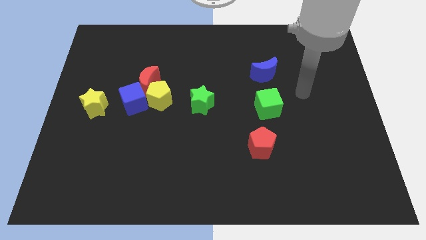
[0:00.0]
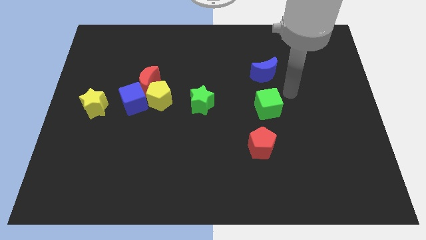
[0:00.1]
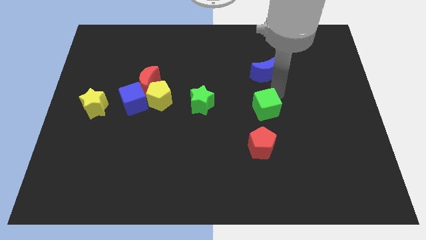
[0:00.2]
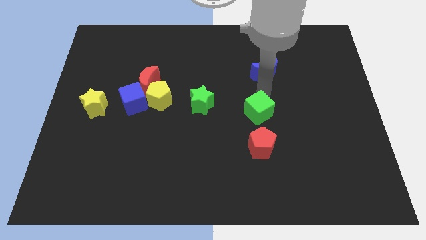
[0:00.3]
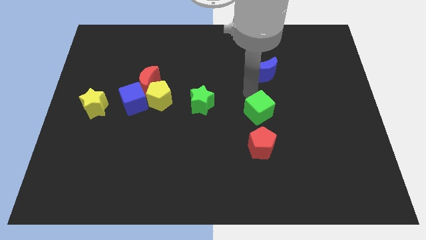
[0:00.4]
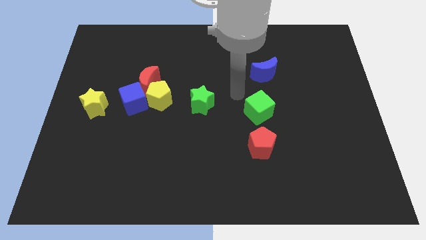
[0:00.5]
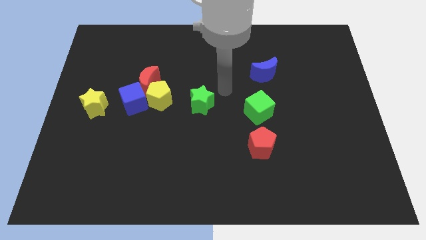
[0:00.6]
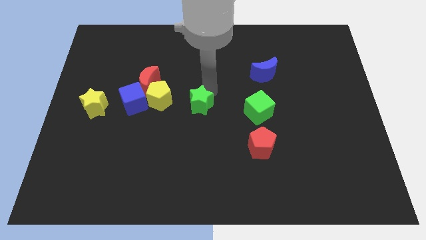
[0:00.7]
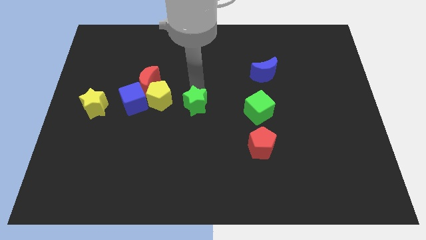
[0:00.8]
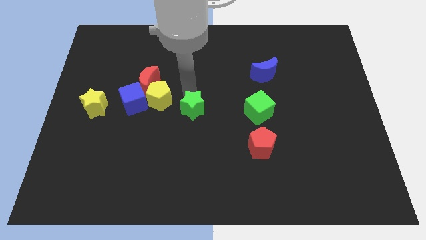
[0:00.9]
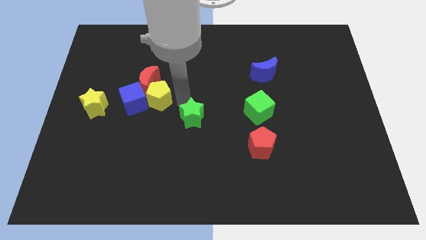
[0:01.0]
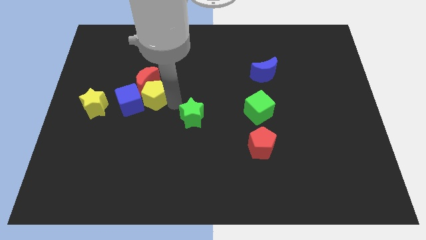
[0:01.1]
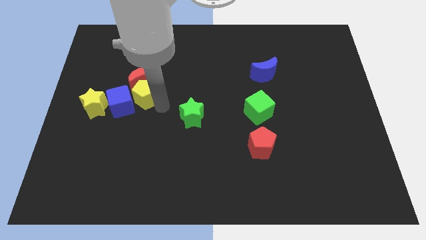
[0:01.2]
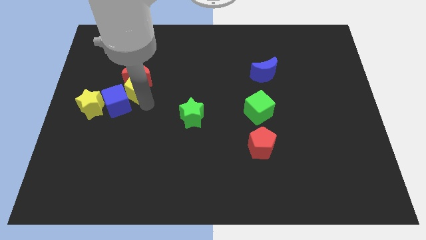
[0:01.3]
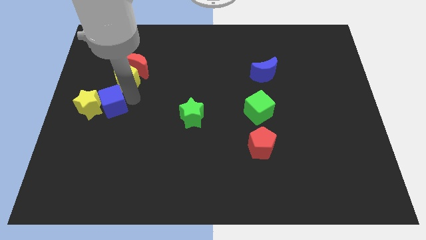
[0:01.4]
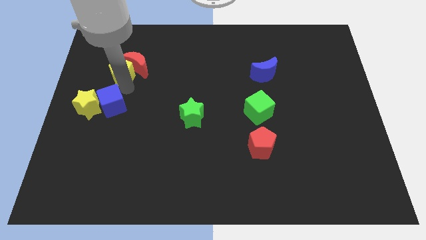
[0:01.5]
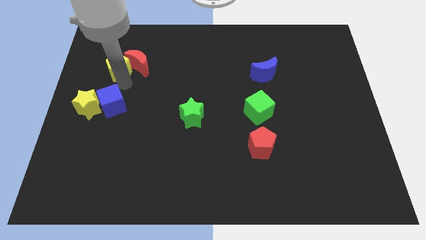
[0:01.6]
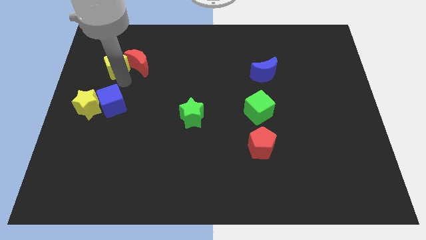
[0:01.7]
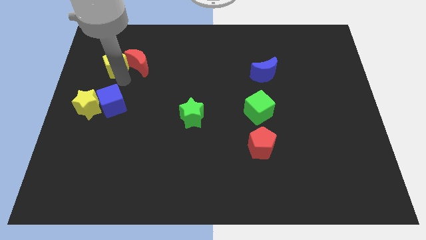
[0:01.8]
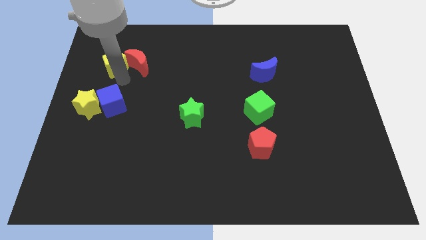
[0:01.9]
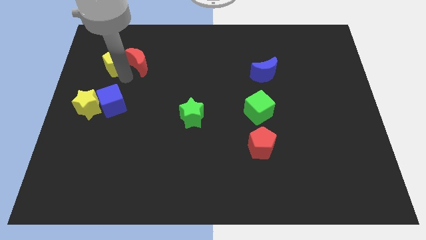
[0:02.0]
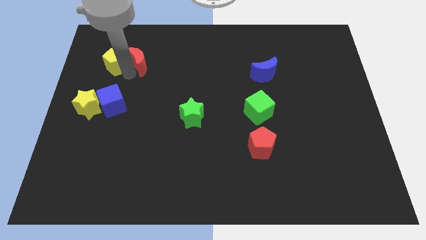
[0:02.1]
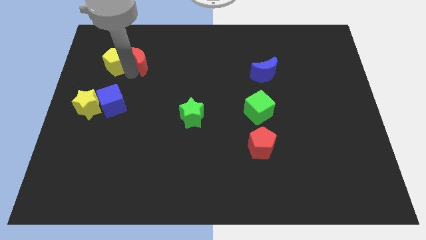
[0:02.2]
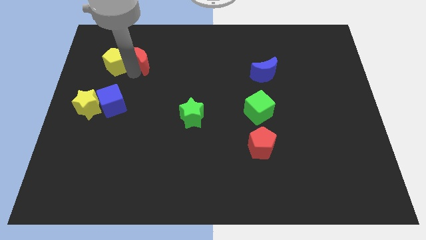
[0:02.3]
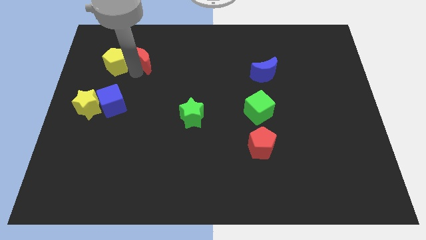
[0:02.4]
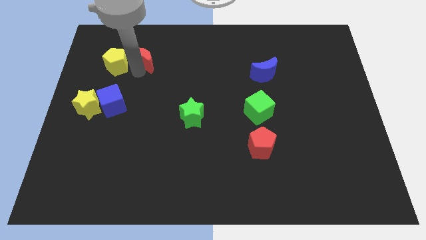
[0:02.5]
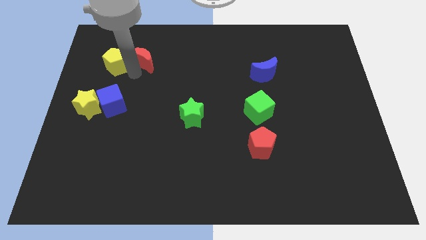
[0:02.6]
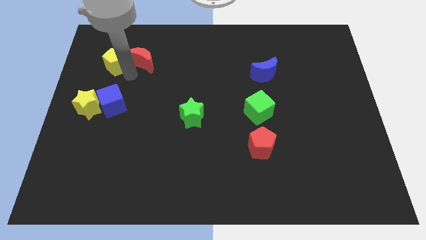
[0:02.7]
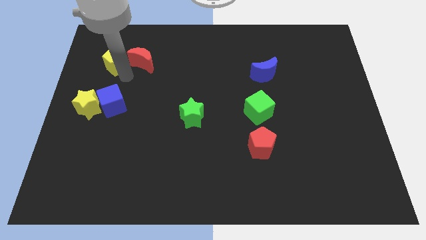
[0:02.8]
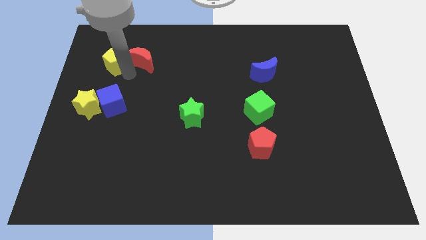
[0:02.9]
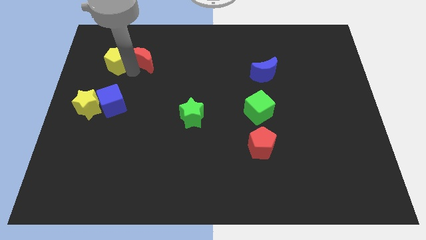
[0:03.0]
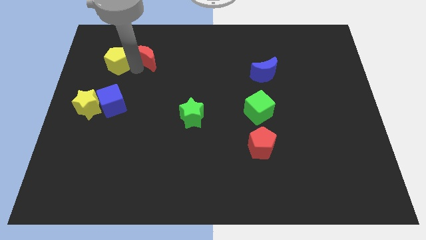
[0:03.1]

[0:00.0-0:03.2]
separate the red moon from the yellow pentagon and blue cube

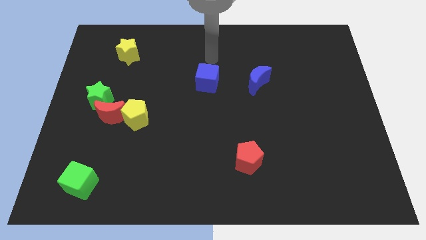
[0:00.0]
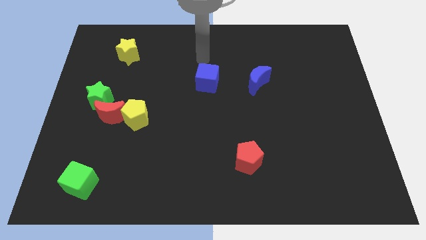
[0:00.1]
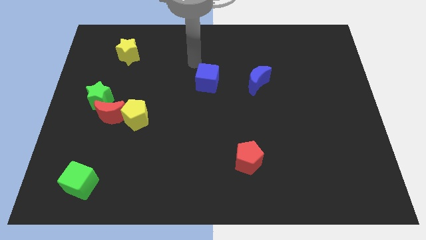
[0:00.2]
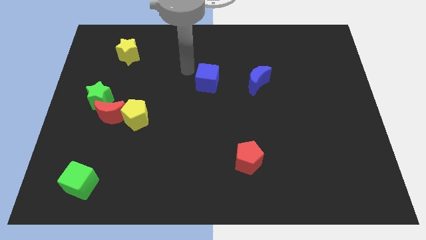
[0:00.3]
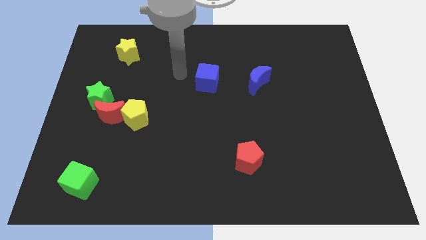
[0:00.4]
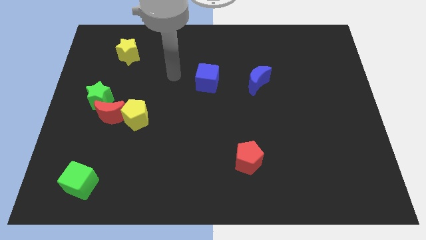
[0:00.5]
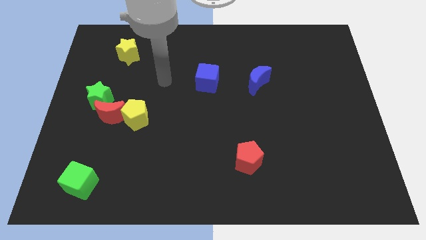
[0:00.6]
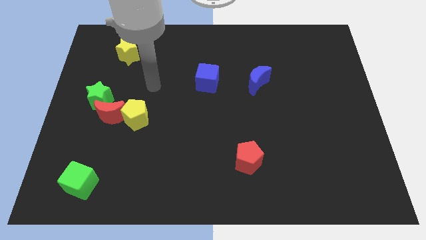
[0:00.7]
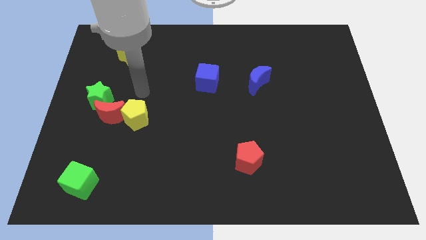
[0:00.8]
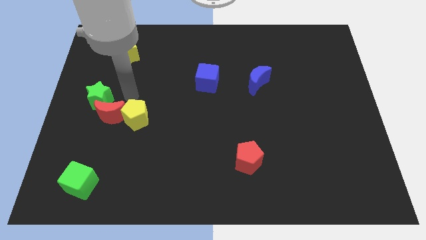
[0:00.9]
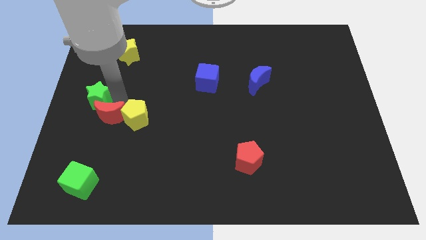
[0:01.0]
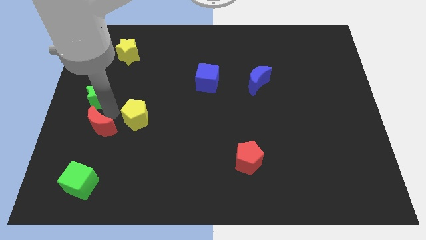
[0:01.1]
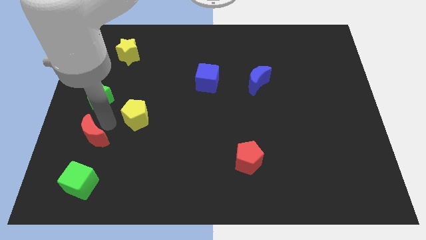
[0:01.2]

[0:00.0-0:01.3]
separate the yellow pentagon from the red moon

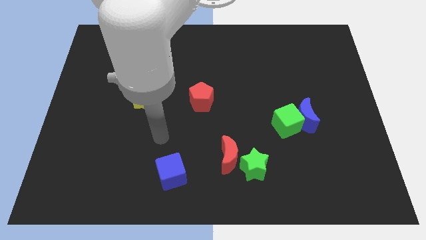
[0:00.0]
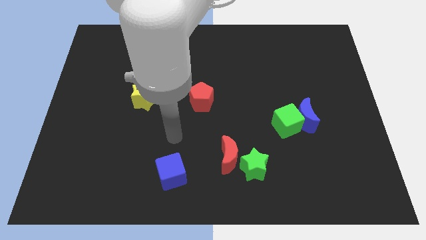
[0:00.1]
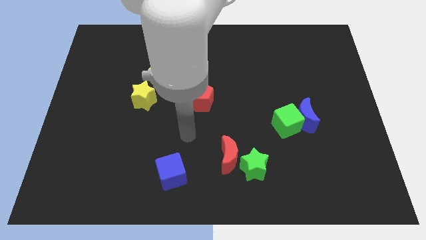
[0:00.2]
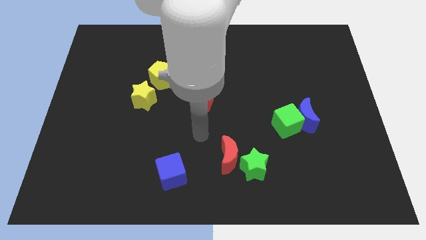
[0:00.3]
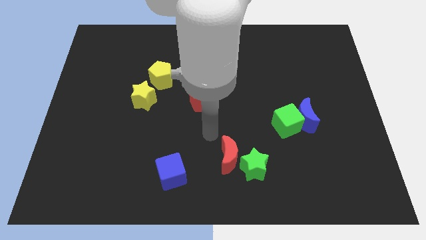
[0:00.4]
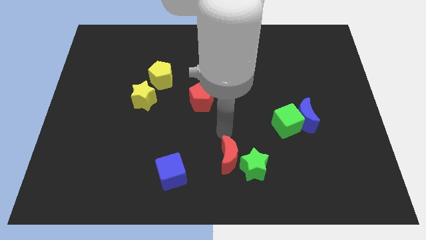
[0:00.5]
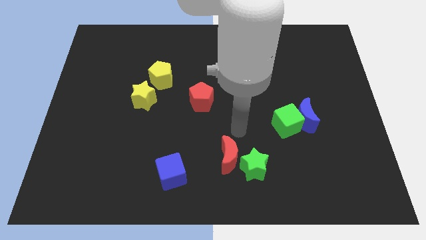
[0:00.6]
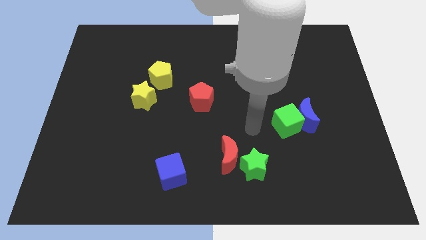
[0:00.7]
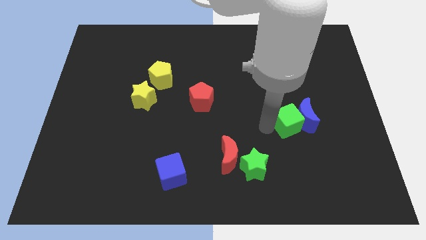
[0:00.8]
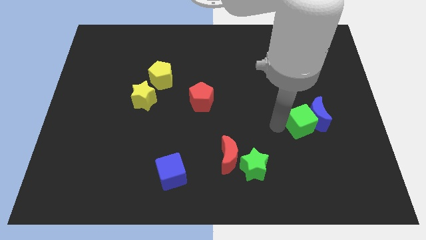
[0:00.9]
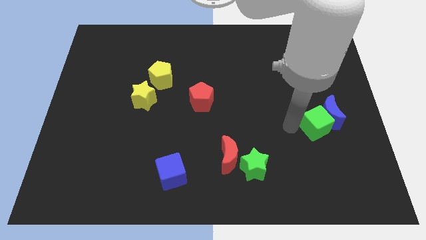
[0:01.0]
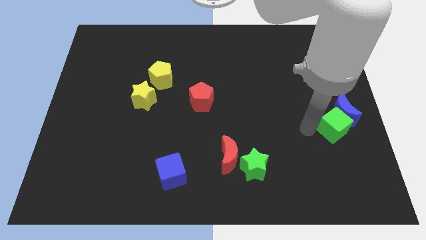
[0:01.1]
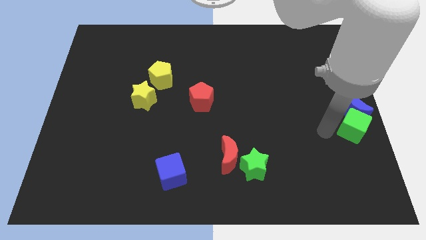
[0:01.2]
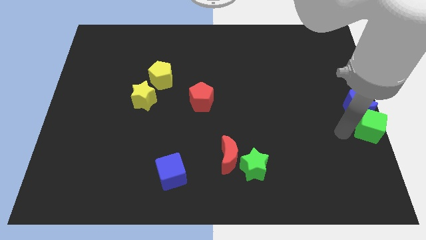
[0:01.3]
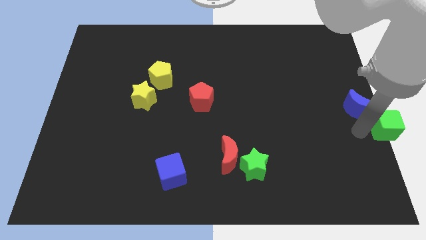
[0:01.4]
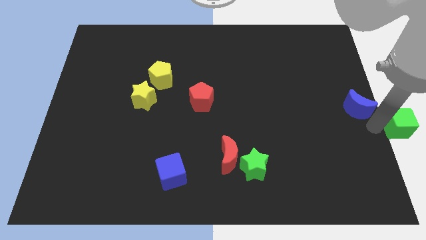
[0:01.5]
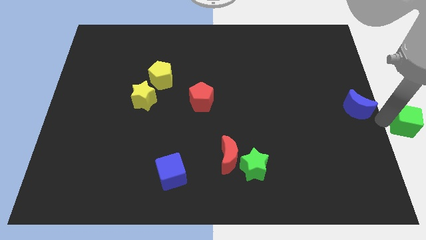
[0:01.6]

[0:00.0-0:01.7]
move the blue moon away from the green cube

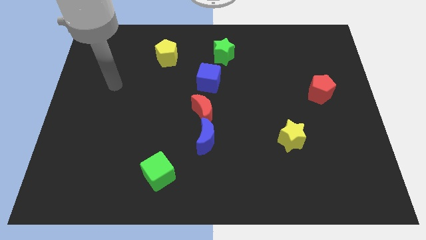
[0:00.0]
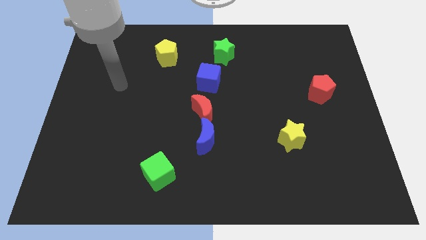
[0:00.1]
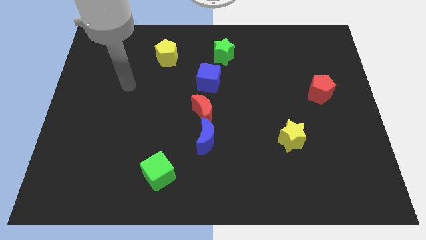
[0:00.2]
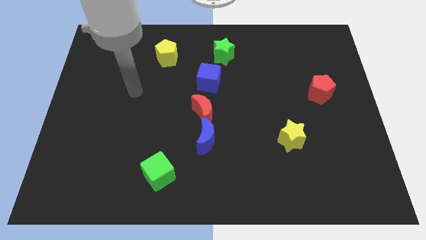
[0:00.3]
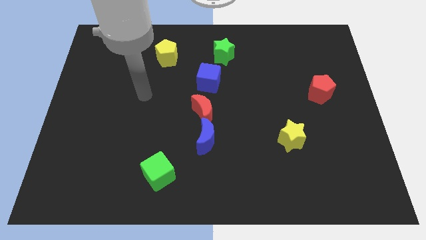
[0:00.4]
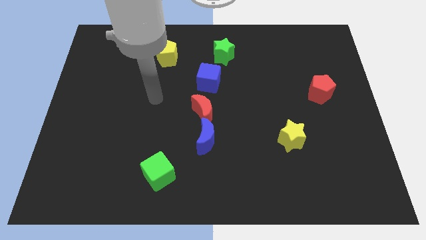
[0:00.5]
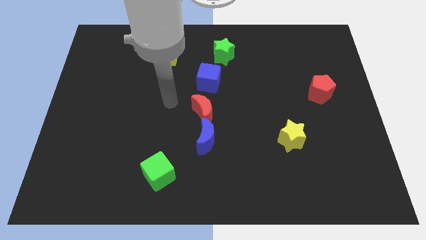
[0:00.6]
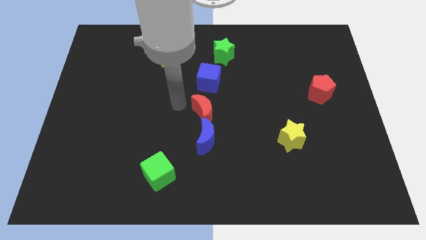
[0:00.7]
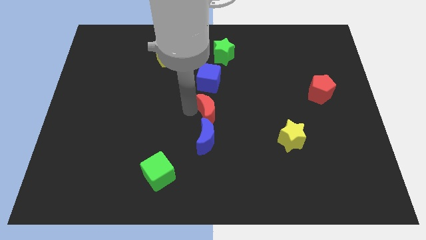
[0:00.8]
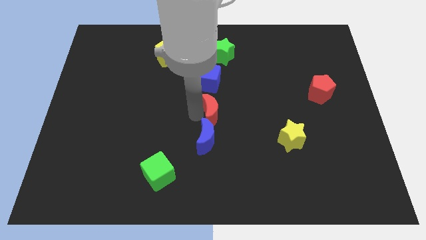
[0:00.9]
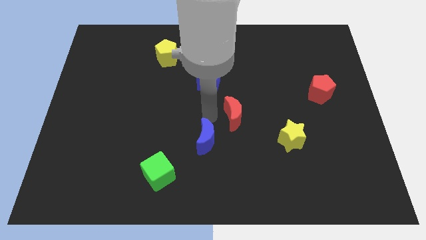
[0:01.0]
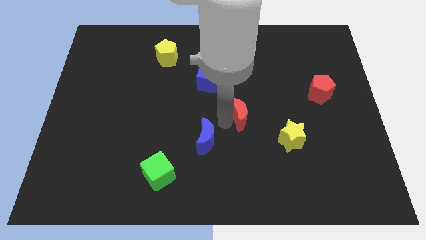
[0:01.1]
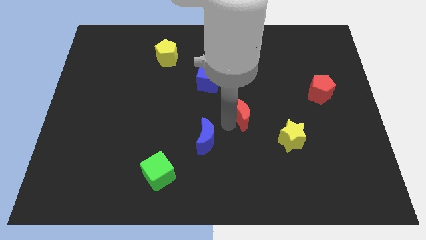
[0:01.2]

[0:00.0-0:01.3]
move the blue moon away from the red moon

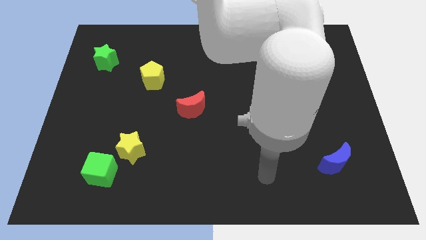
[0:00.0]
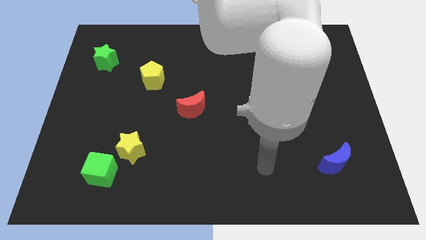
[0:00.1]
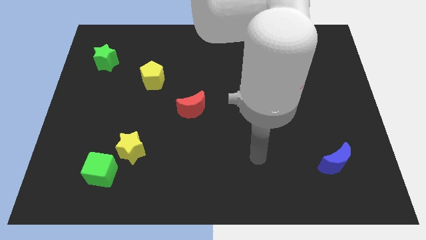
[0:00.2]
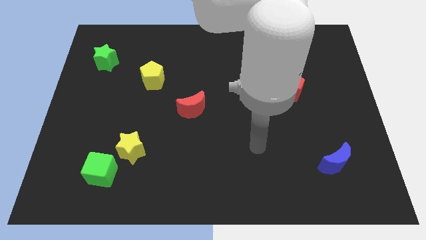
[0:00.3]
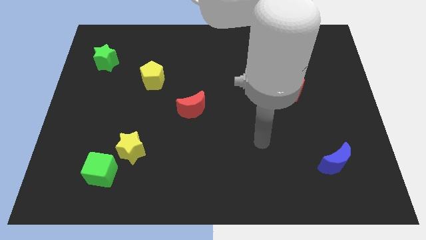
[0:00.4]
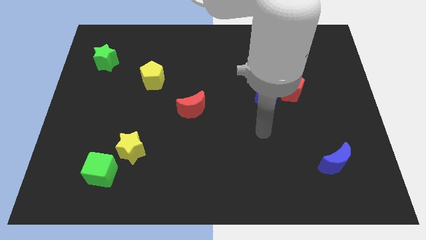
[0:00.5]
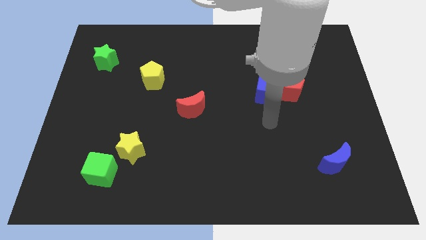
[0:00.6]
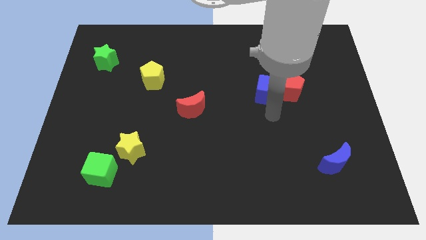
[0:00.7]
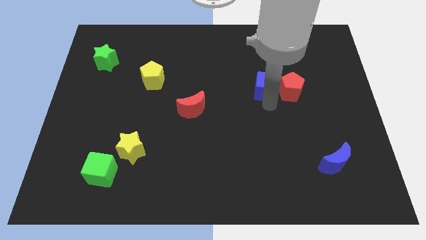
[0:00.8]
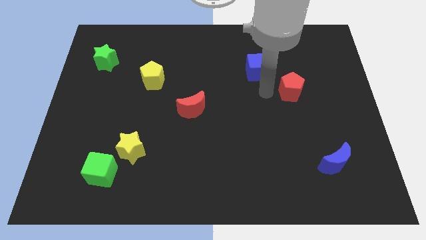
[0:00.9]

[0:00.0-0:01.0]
separate the red pentagon from the blue cube

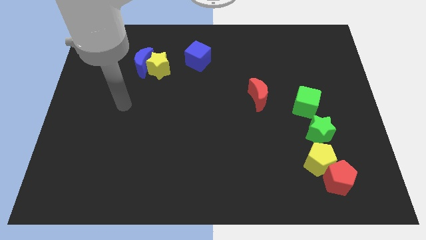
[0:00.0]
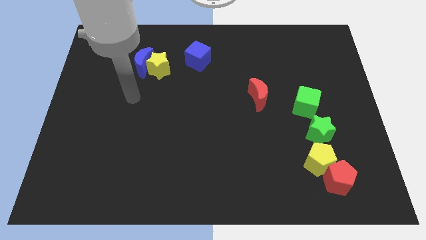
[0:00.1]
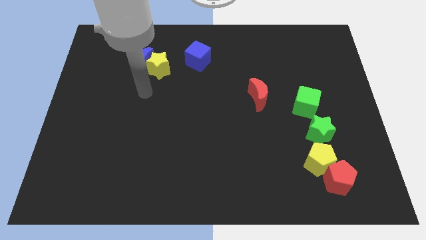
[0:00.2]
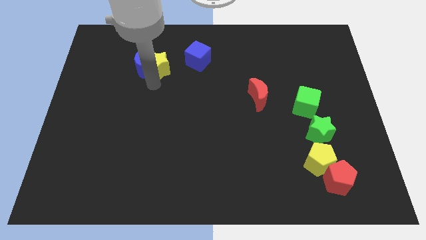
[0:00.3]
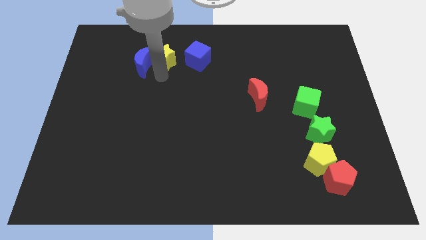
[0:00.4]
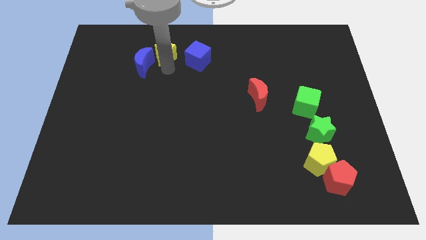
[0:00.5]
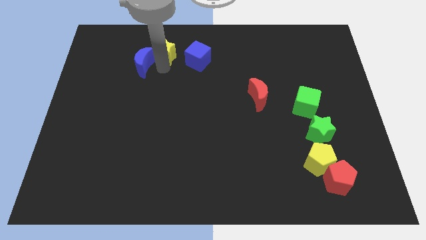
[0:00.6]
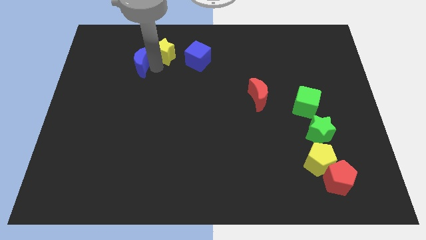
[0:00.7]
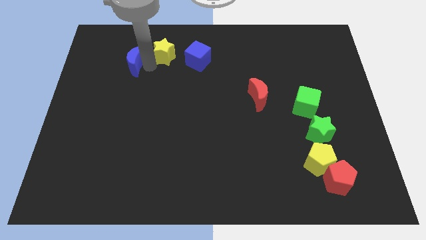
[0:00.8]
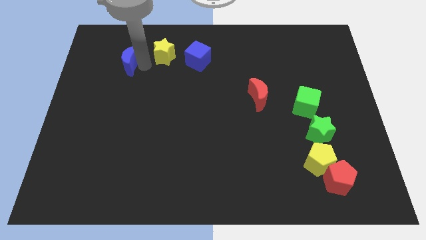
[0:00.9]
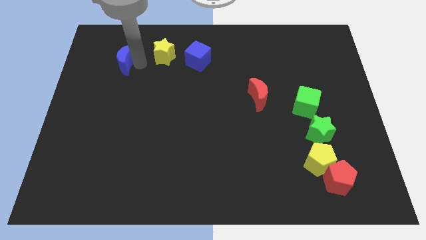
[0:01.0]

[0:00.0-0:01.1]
separate the blue moon from the yellow star
